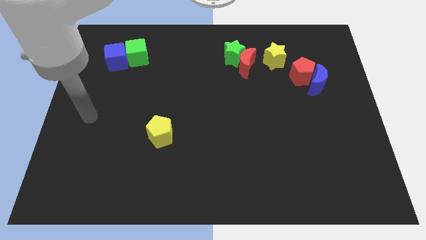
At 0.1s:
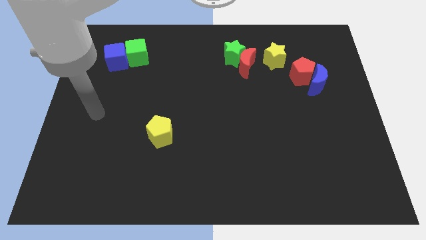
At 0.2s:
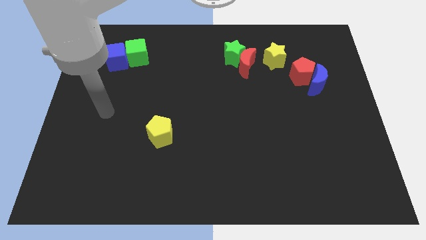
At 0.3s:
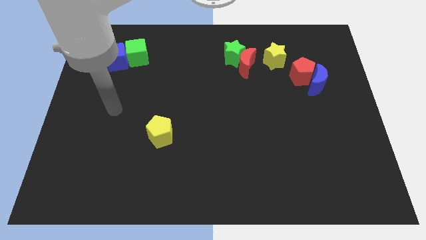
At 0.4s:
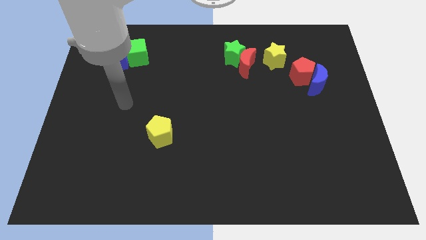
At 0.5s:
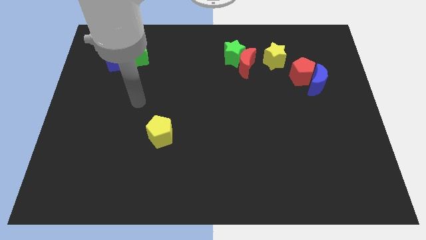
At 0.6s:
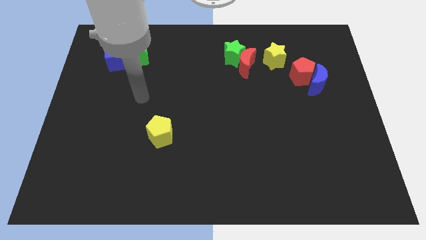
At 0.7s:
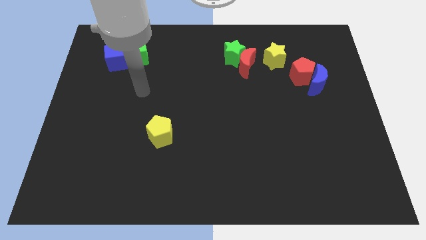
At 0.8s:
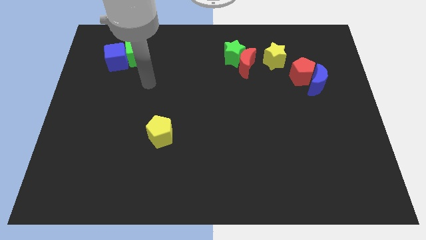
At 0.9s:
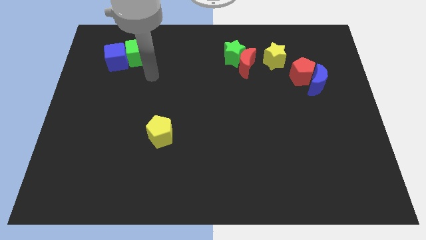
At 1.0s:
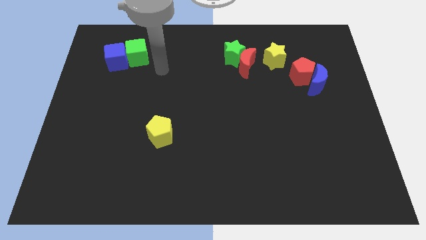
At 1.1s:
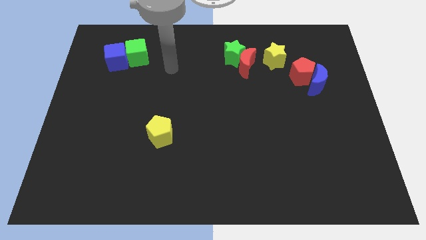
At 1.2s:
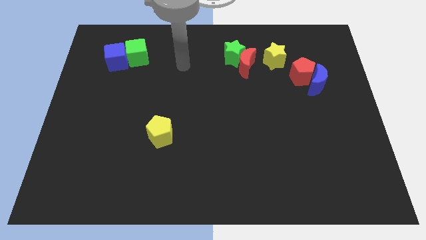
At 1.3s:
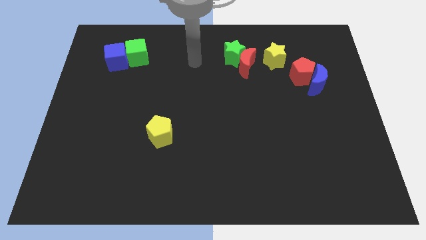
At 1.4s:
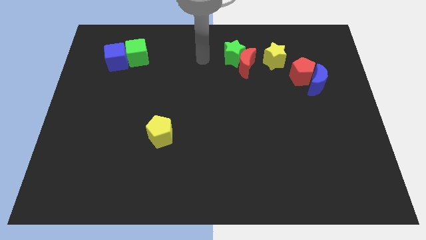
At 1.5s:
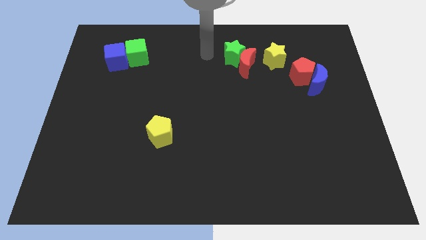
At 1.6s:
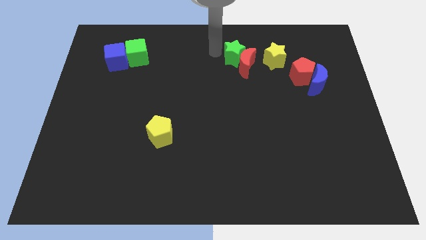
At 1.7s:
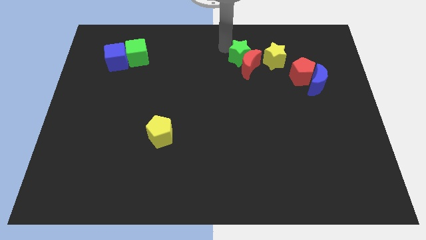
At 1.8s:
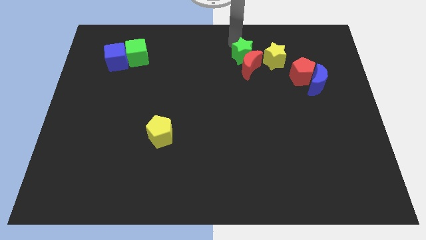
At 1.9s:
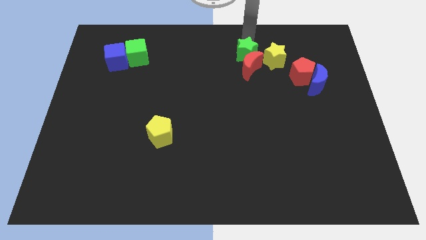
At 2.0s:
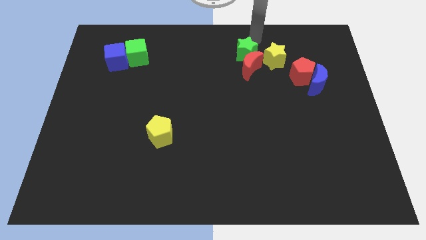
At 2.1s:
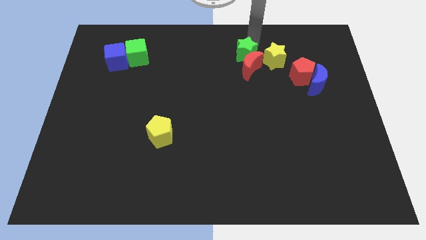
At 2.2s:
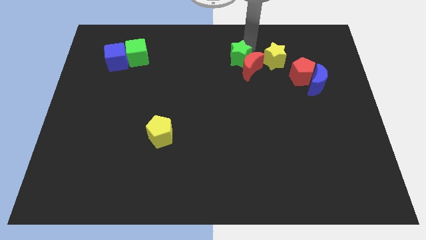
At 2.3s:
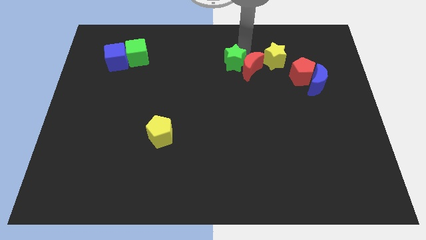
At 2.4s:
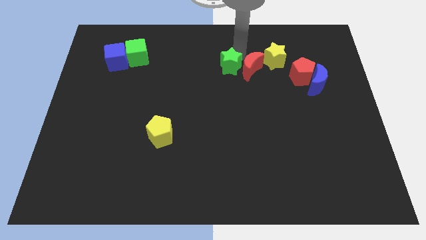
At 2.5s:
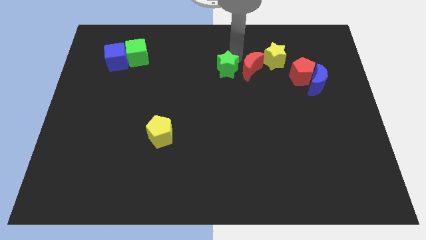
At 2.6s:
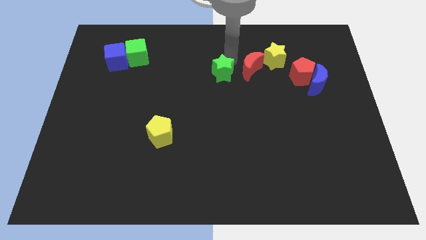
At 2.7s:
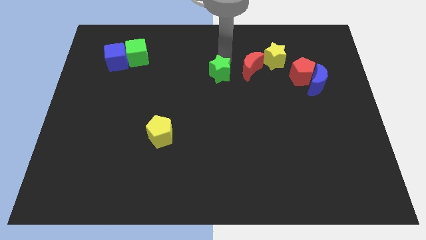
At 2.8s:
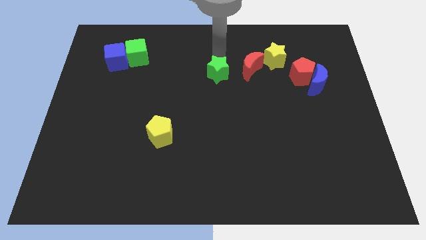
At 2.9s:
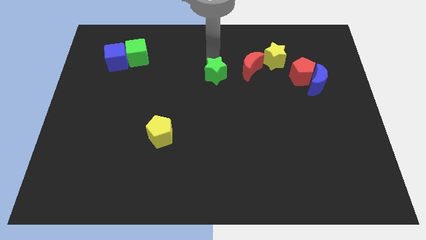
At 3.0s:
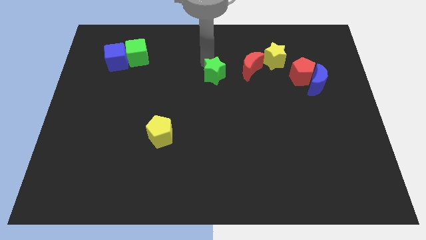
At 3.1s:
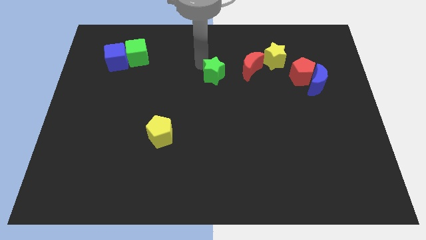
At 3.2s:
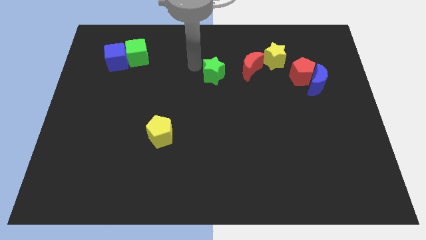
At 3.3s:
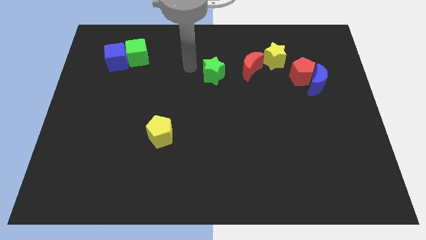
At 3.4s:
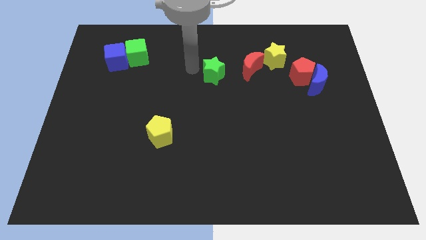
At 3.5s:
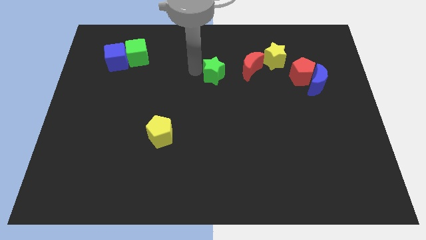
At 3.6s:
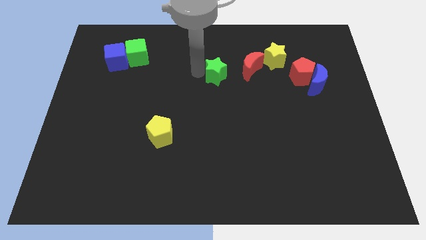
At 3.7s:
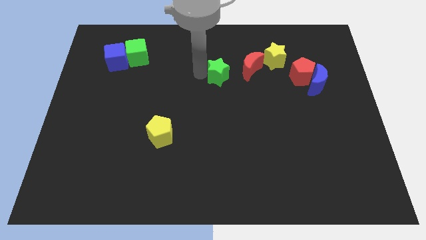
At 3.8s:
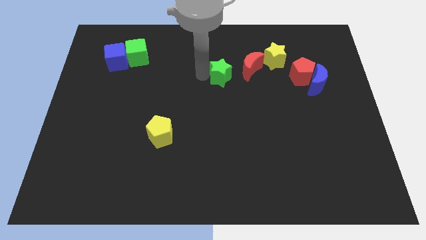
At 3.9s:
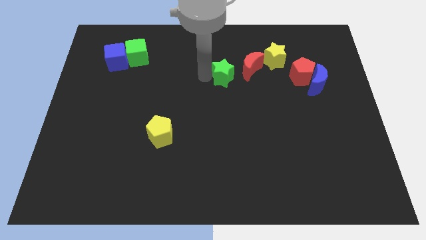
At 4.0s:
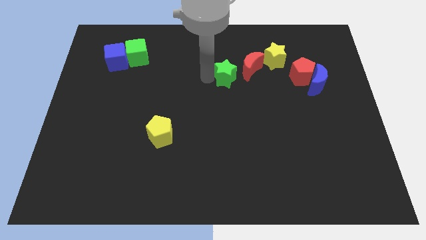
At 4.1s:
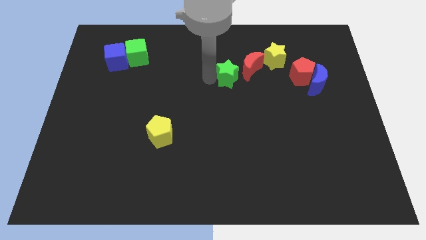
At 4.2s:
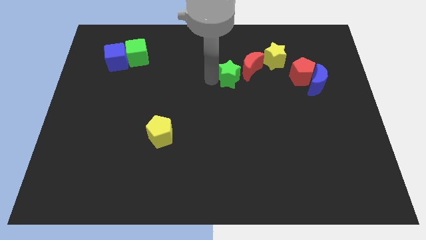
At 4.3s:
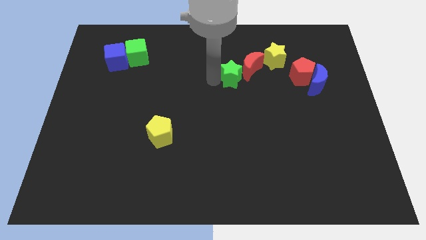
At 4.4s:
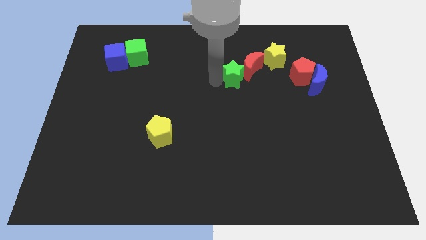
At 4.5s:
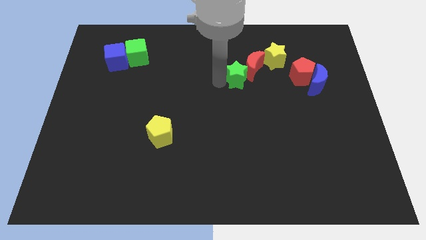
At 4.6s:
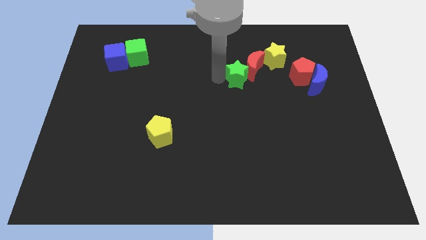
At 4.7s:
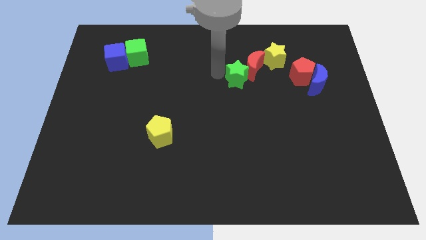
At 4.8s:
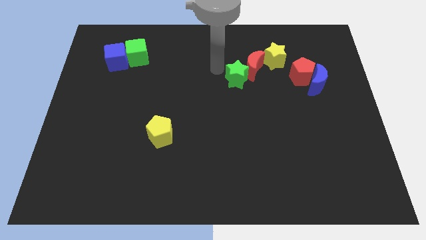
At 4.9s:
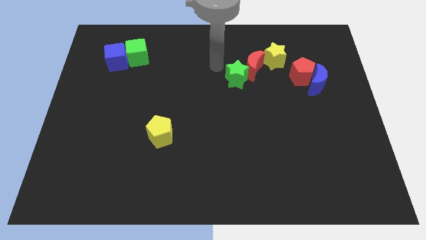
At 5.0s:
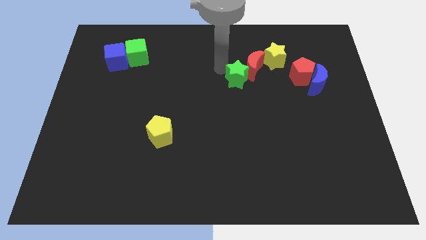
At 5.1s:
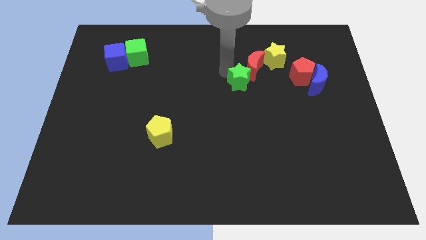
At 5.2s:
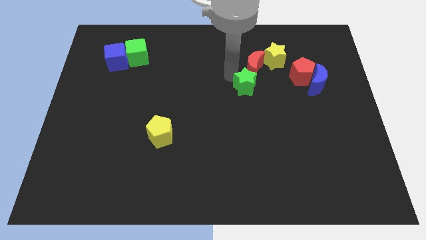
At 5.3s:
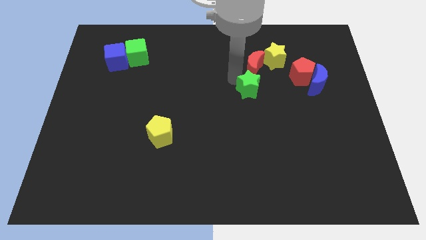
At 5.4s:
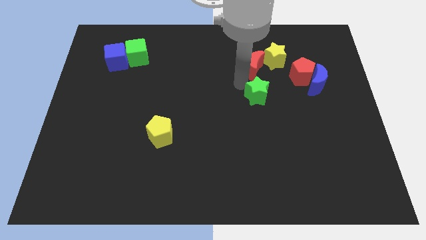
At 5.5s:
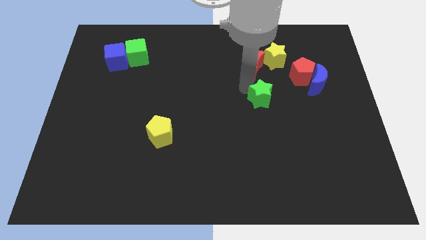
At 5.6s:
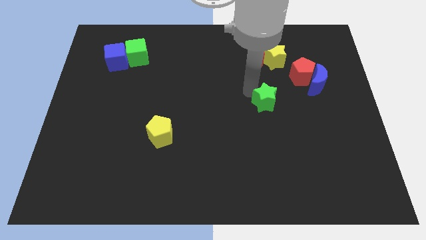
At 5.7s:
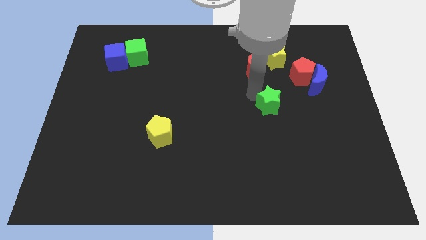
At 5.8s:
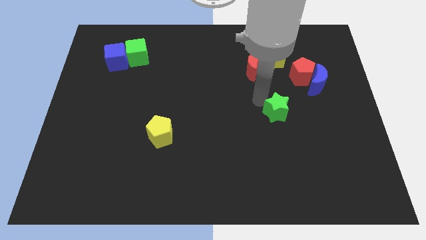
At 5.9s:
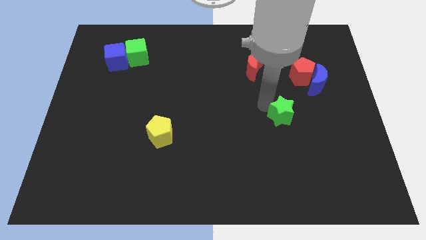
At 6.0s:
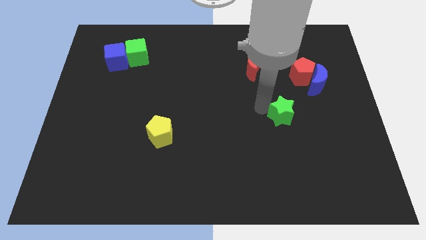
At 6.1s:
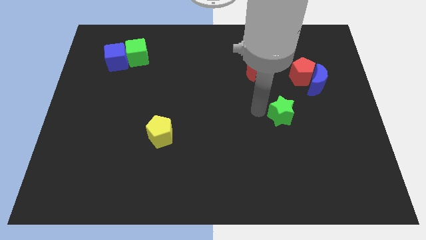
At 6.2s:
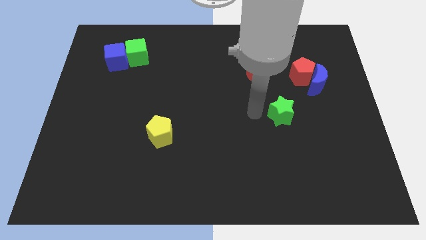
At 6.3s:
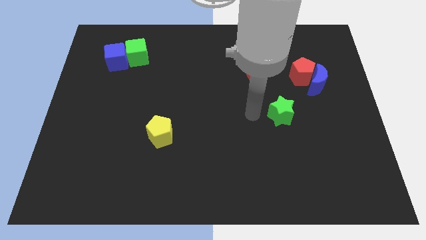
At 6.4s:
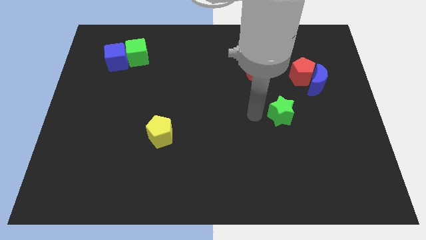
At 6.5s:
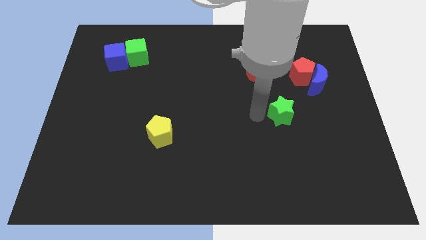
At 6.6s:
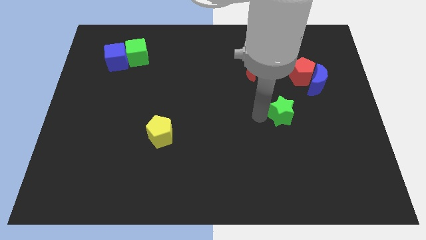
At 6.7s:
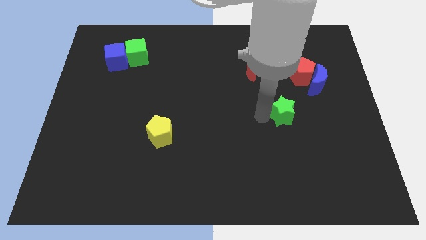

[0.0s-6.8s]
push the green star diagonally downwards and to the right

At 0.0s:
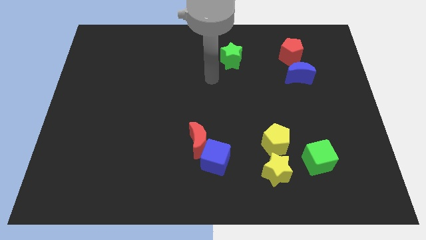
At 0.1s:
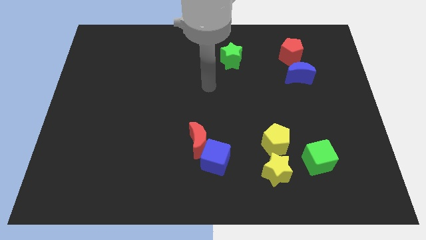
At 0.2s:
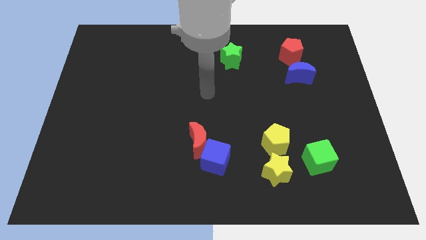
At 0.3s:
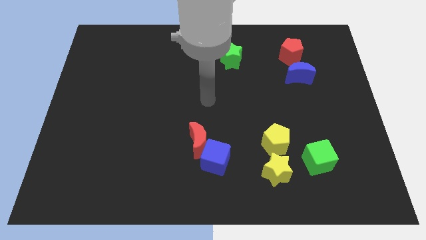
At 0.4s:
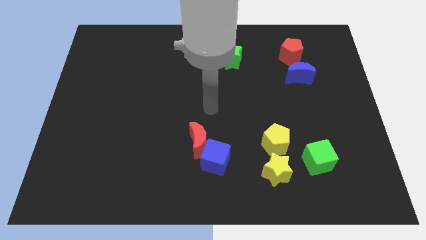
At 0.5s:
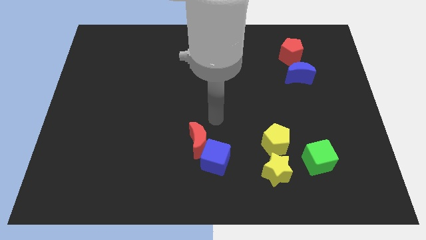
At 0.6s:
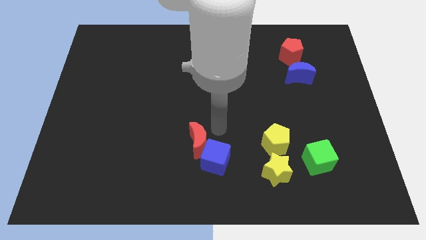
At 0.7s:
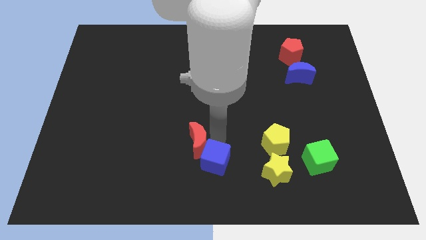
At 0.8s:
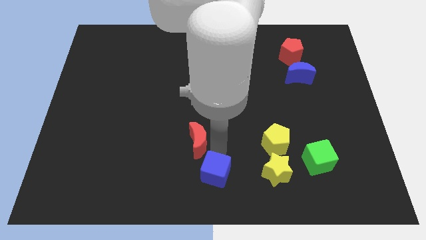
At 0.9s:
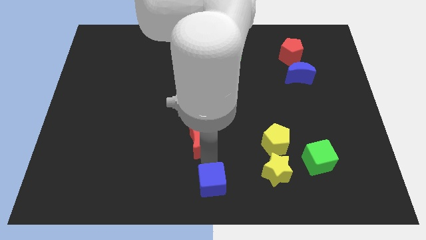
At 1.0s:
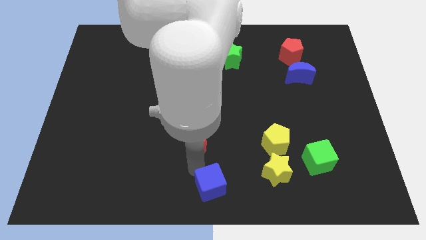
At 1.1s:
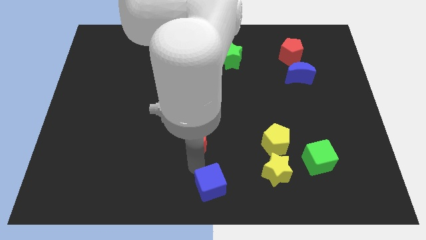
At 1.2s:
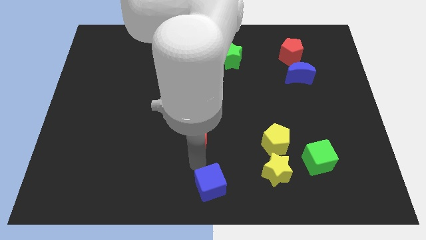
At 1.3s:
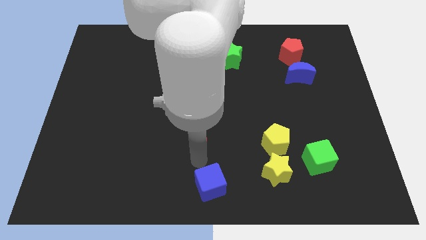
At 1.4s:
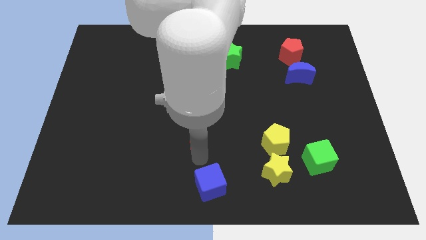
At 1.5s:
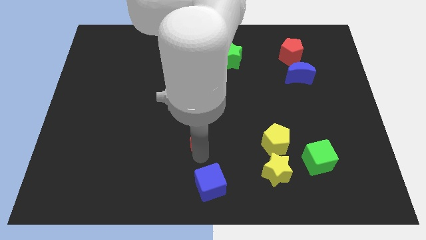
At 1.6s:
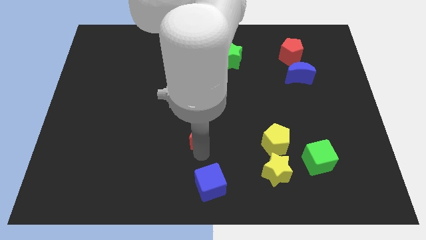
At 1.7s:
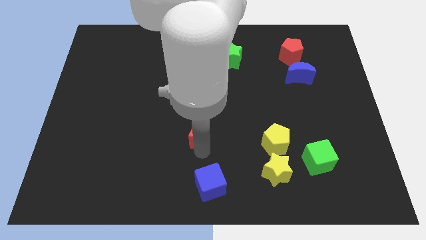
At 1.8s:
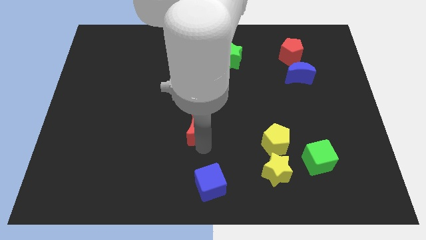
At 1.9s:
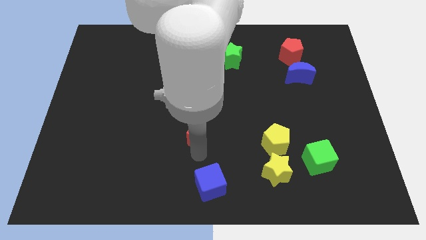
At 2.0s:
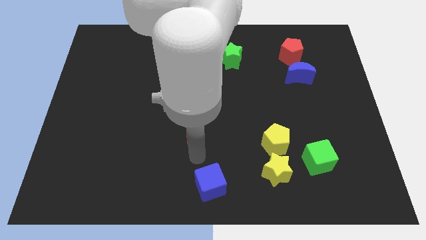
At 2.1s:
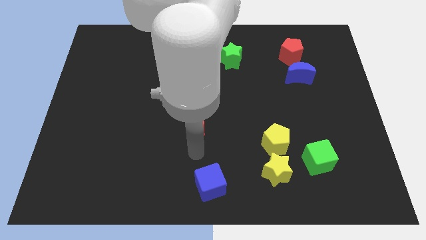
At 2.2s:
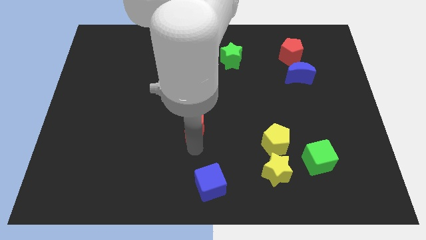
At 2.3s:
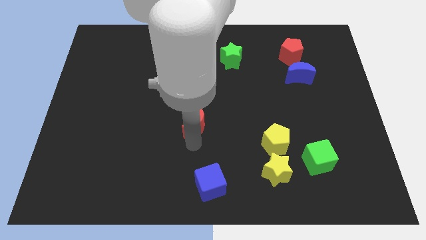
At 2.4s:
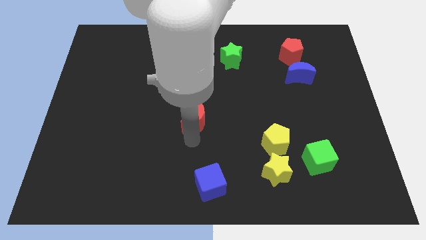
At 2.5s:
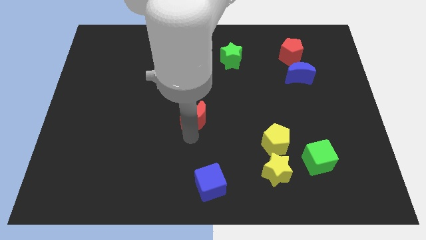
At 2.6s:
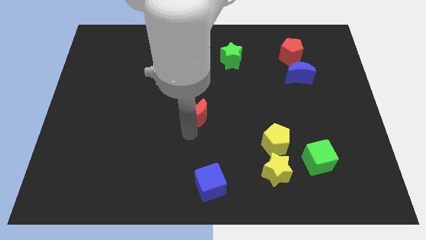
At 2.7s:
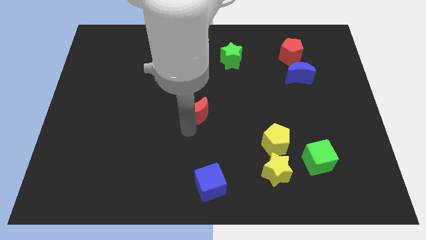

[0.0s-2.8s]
move the red moon somewhat upwards
